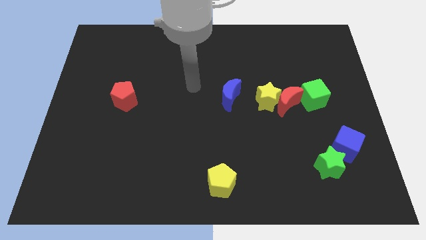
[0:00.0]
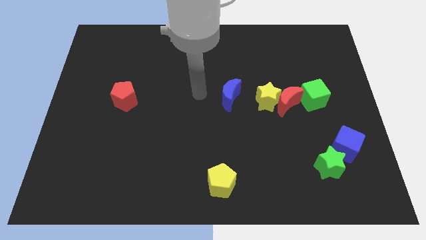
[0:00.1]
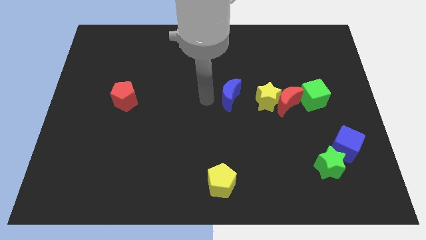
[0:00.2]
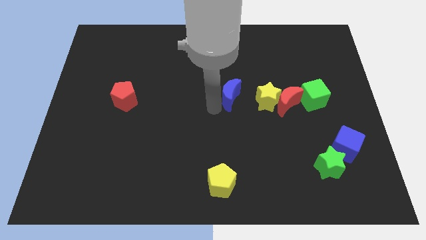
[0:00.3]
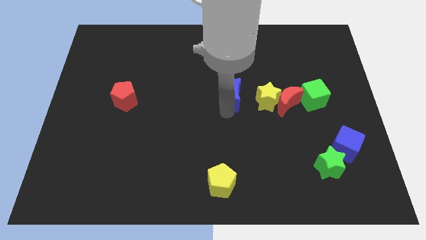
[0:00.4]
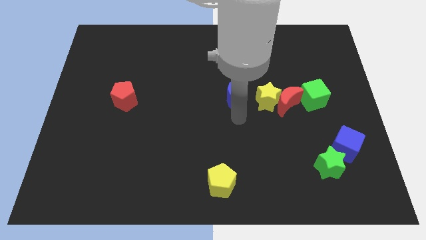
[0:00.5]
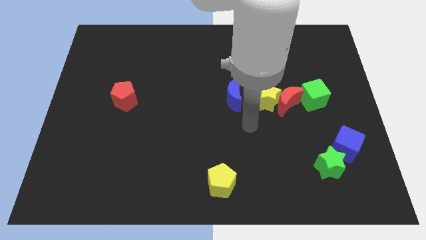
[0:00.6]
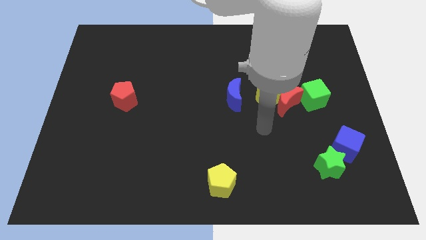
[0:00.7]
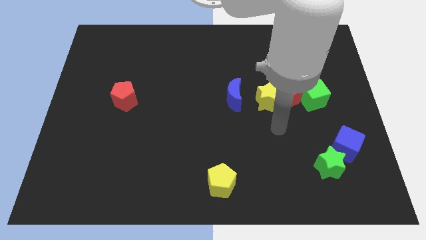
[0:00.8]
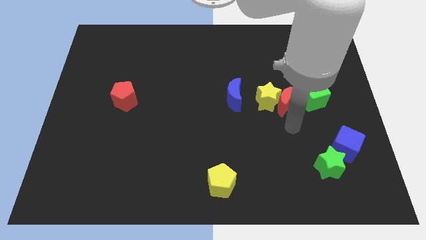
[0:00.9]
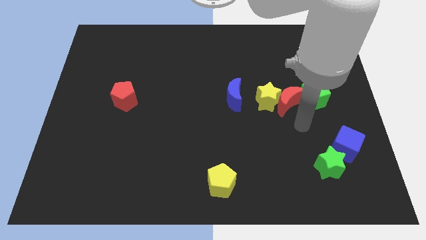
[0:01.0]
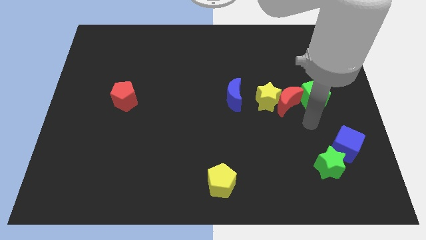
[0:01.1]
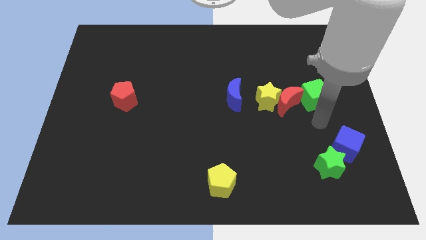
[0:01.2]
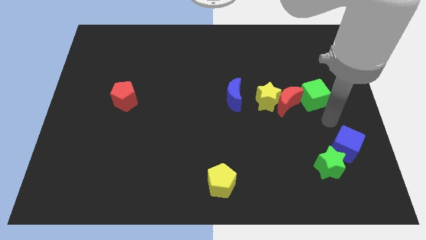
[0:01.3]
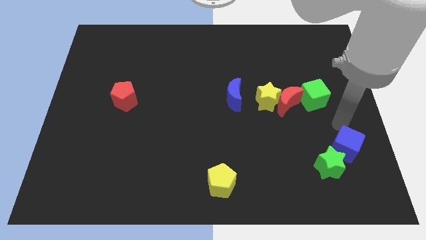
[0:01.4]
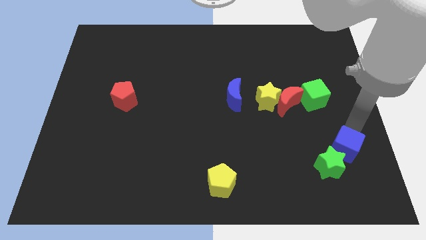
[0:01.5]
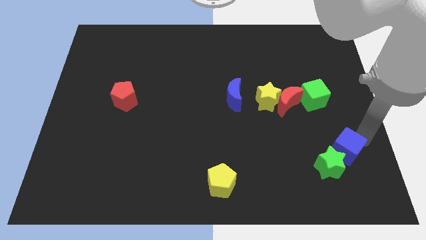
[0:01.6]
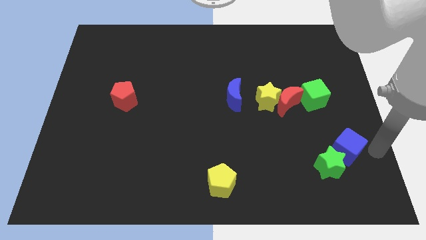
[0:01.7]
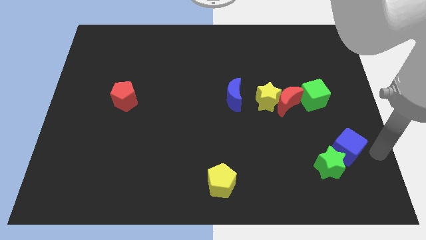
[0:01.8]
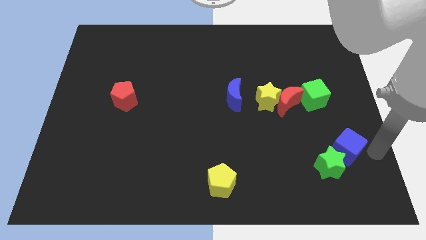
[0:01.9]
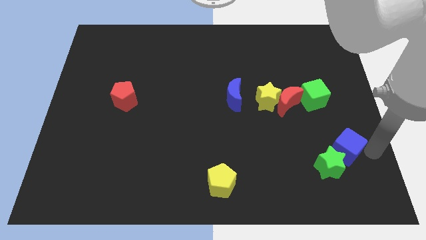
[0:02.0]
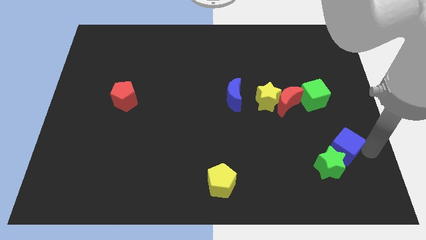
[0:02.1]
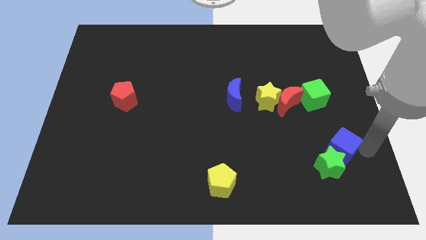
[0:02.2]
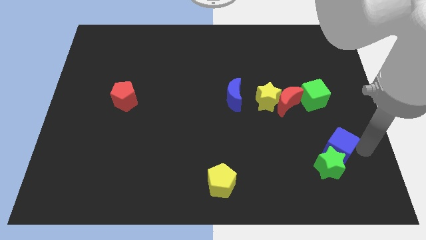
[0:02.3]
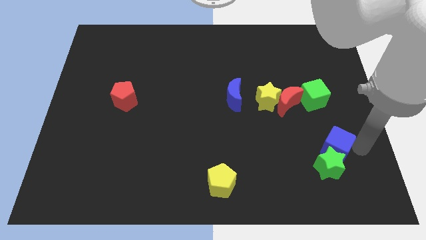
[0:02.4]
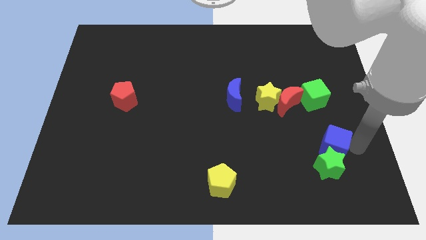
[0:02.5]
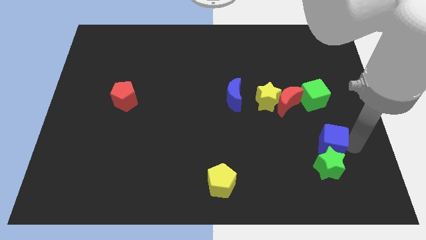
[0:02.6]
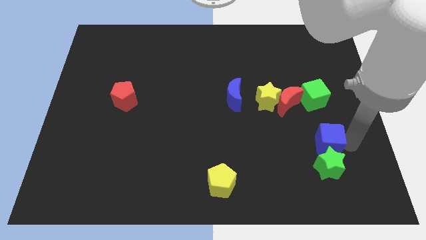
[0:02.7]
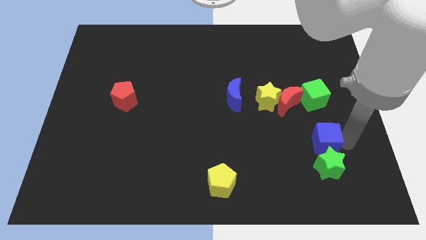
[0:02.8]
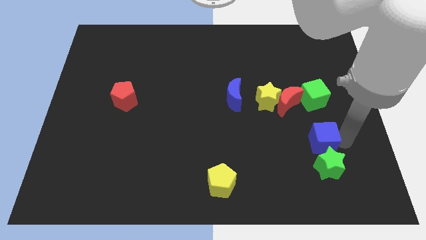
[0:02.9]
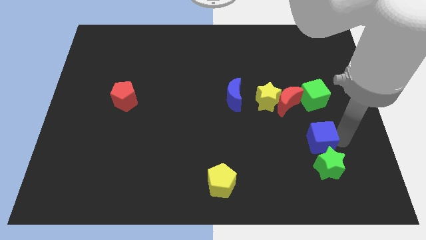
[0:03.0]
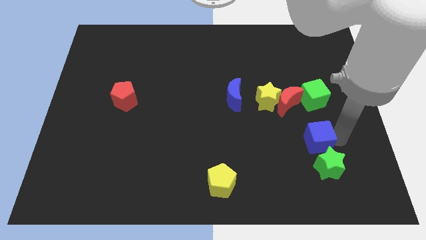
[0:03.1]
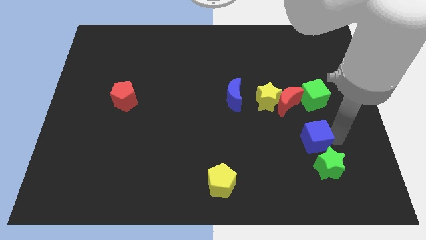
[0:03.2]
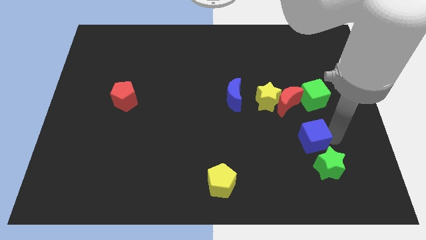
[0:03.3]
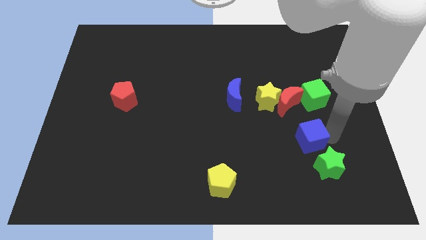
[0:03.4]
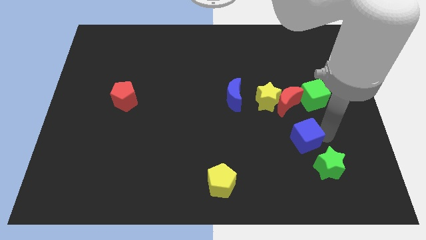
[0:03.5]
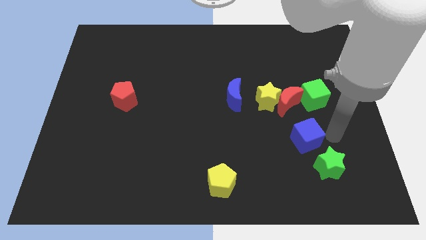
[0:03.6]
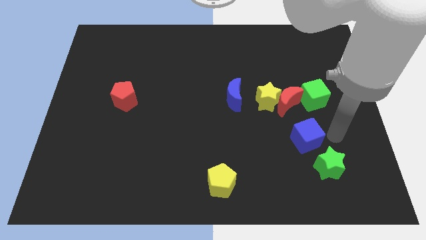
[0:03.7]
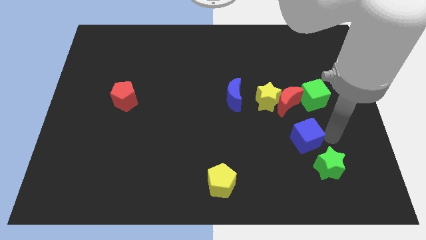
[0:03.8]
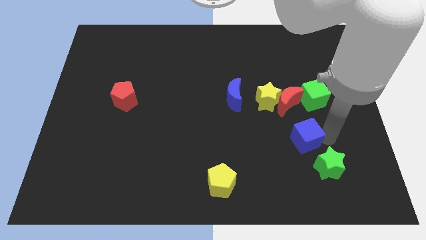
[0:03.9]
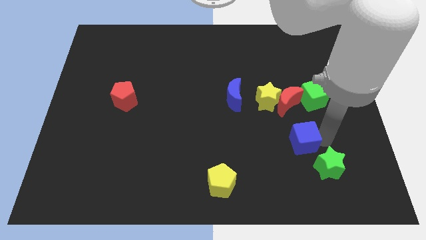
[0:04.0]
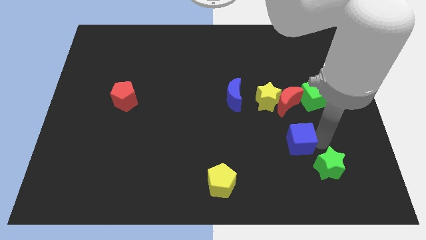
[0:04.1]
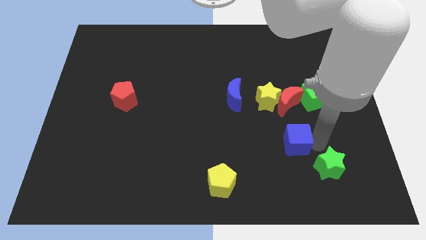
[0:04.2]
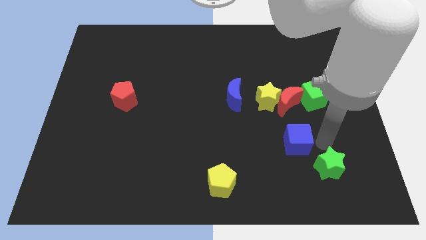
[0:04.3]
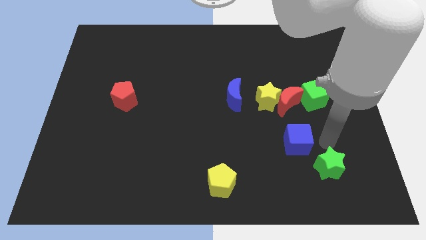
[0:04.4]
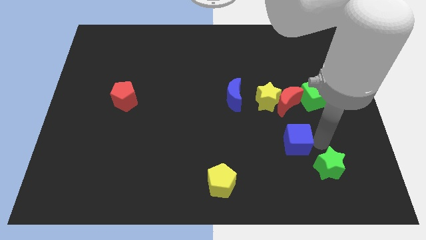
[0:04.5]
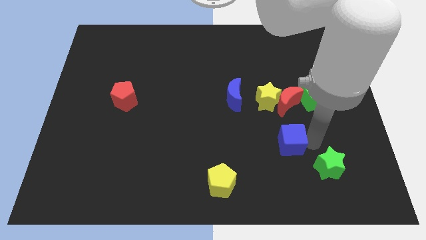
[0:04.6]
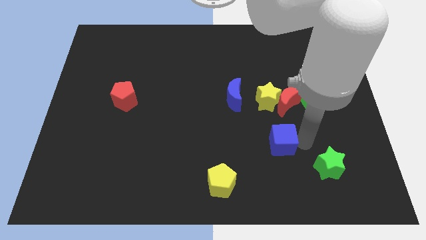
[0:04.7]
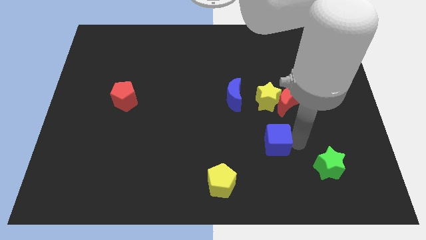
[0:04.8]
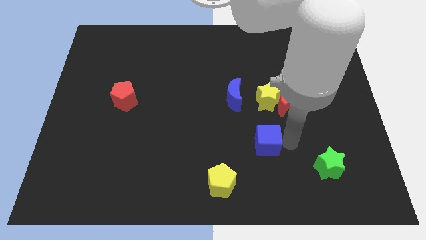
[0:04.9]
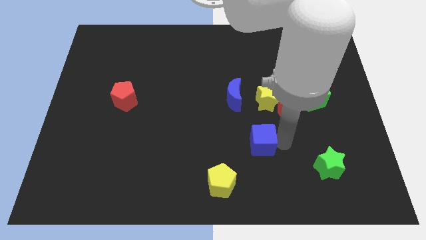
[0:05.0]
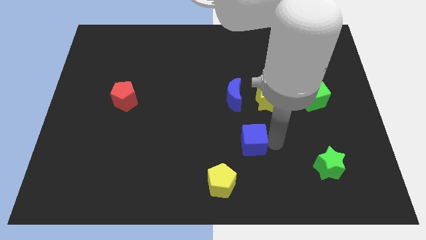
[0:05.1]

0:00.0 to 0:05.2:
push the blue cube to the left

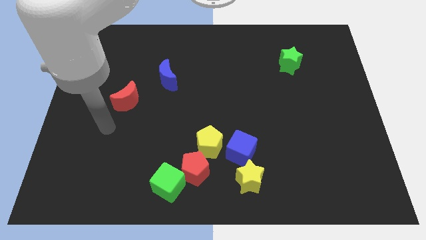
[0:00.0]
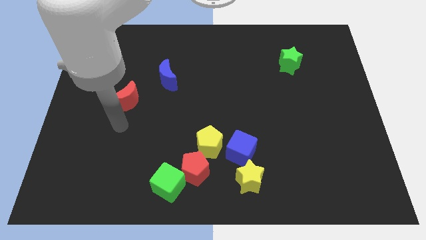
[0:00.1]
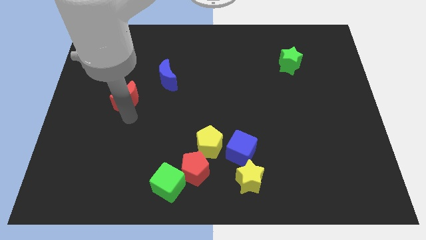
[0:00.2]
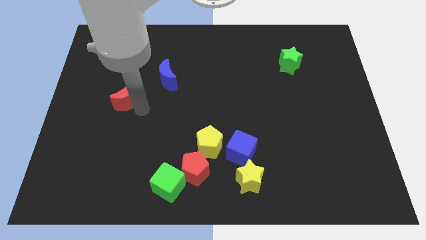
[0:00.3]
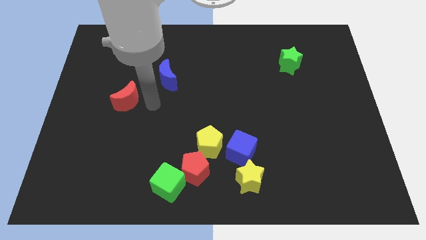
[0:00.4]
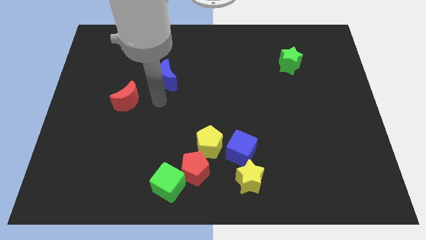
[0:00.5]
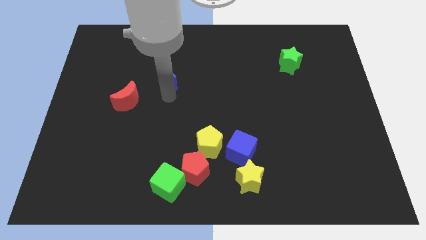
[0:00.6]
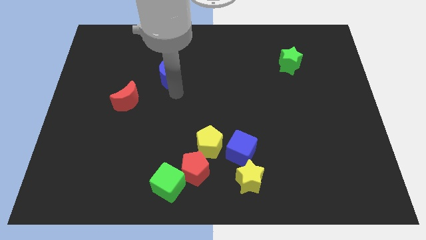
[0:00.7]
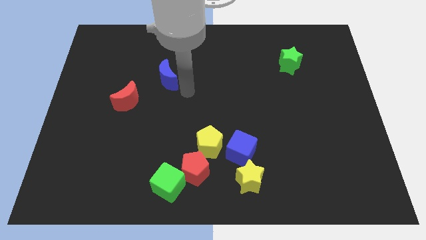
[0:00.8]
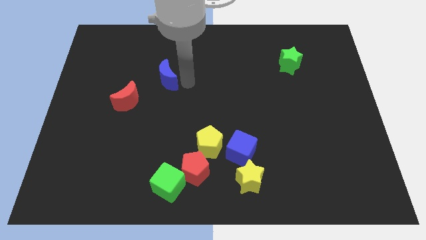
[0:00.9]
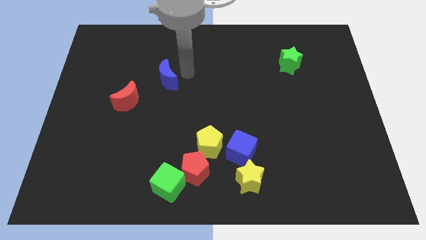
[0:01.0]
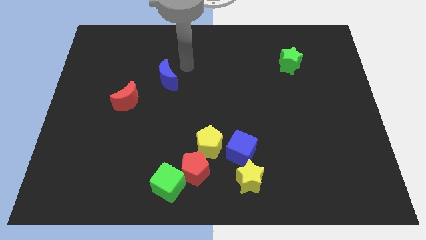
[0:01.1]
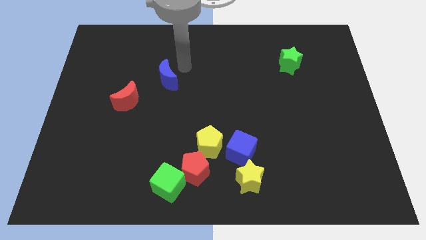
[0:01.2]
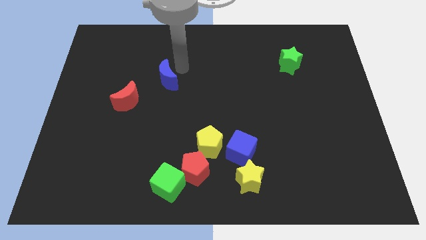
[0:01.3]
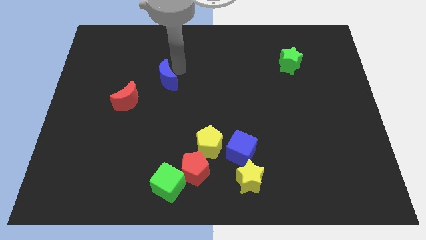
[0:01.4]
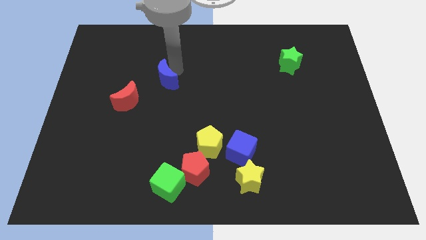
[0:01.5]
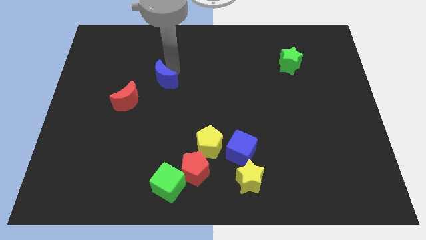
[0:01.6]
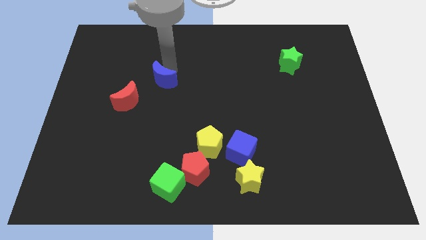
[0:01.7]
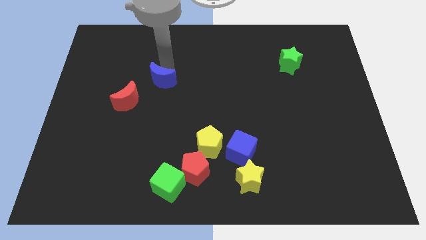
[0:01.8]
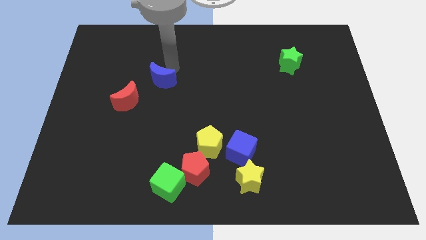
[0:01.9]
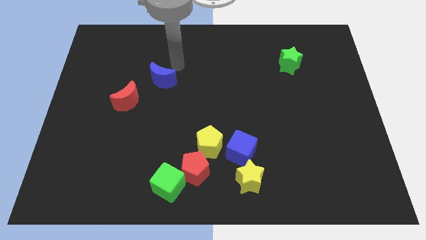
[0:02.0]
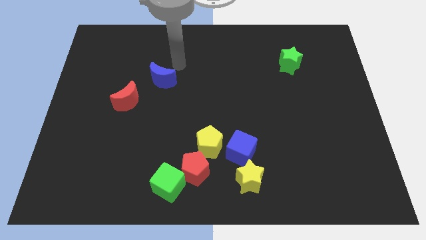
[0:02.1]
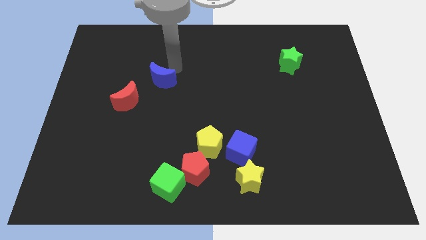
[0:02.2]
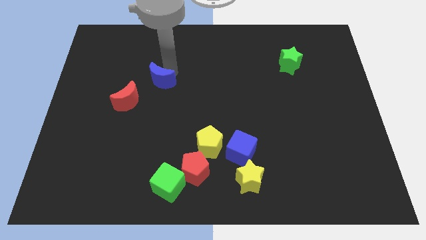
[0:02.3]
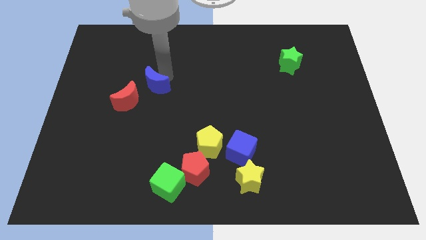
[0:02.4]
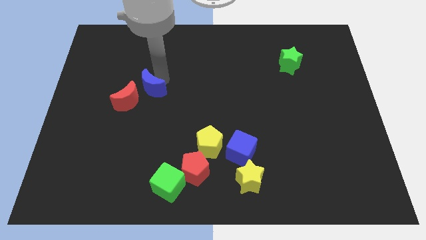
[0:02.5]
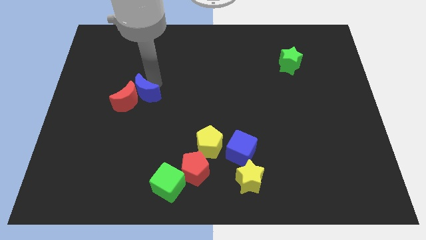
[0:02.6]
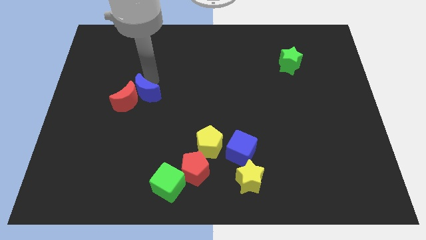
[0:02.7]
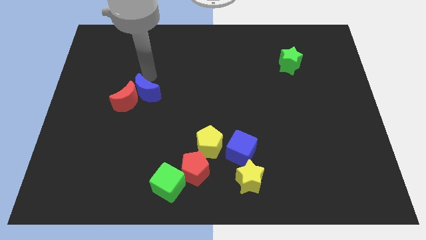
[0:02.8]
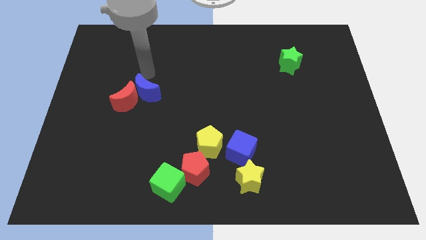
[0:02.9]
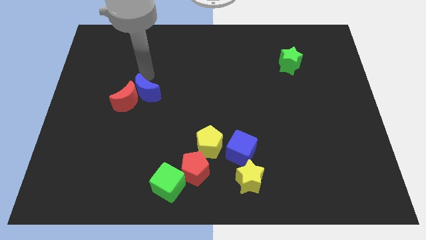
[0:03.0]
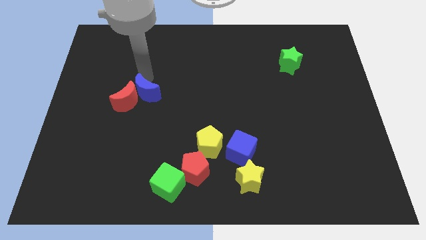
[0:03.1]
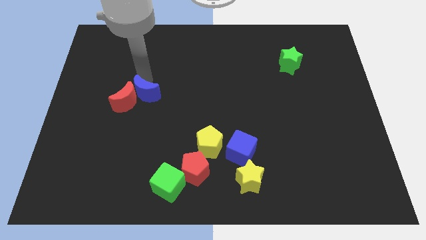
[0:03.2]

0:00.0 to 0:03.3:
move the blue moon downwards and then left somewhat
